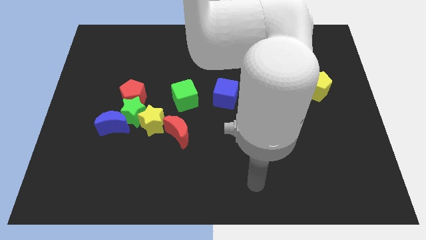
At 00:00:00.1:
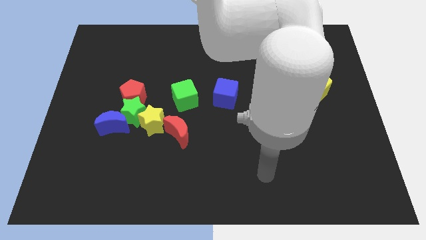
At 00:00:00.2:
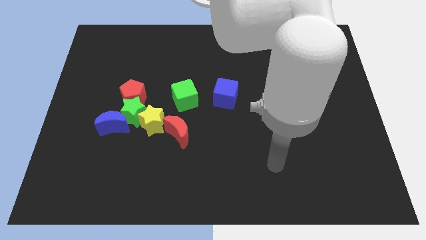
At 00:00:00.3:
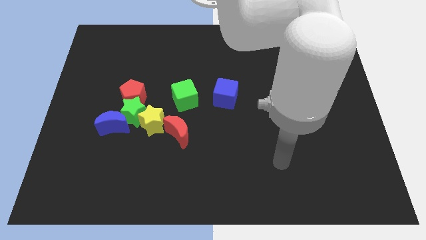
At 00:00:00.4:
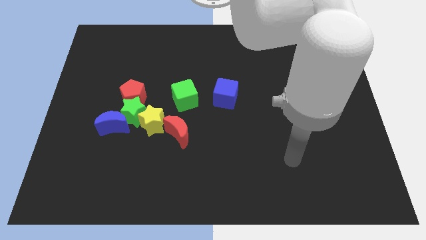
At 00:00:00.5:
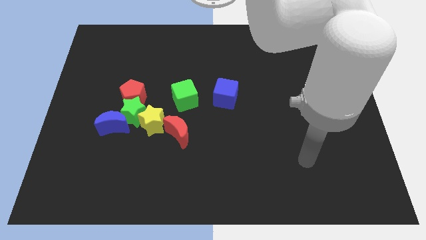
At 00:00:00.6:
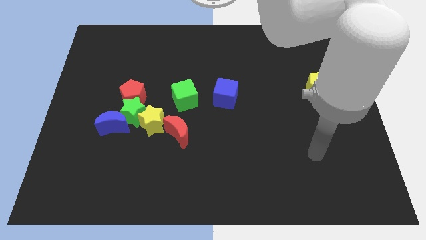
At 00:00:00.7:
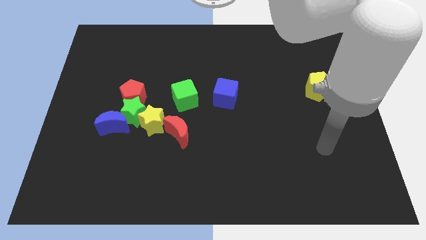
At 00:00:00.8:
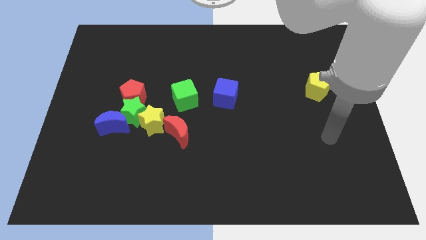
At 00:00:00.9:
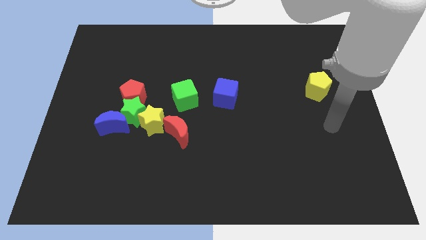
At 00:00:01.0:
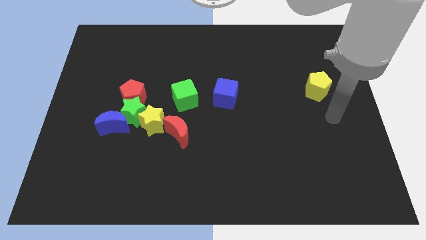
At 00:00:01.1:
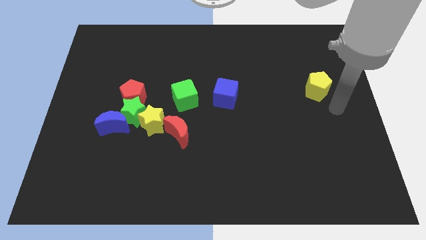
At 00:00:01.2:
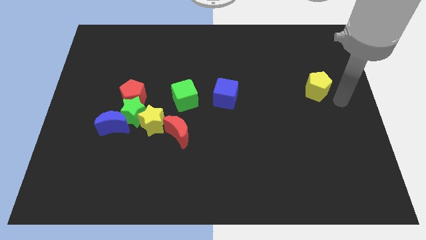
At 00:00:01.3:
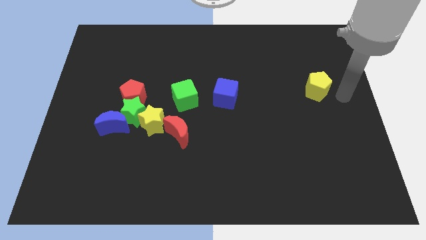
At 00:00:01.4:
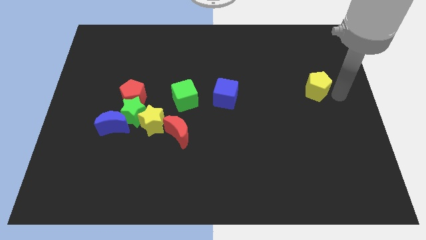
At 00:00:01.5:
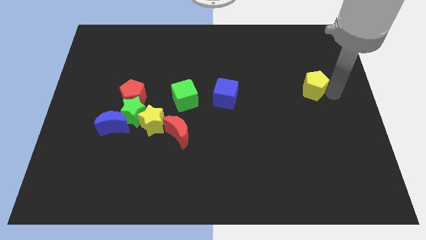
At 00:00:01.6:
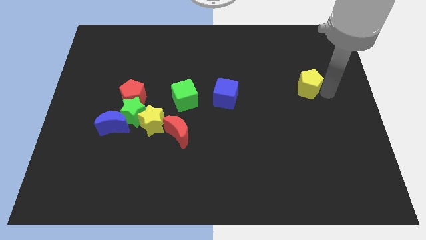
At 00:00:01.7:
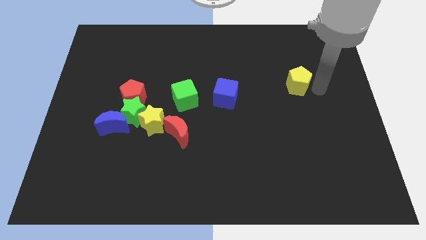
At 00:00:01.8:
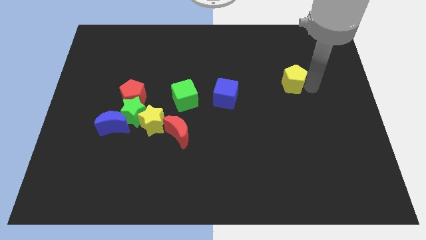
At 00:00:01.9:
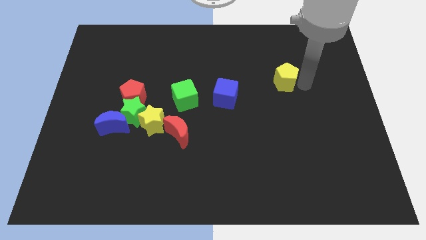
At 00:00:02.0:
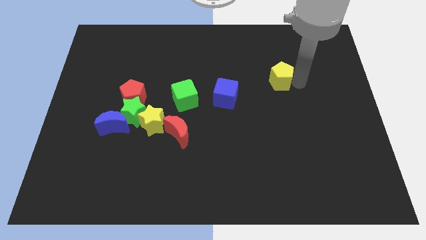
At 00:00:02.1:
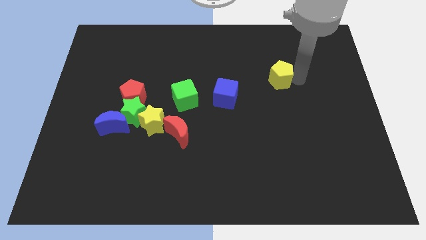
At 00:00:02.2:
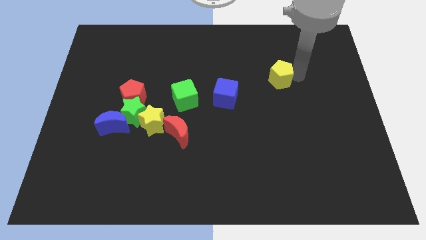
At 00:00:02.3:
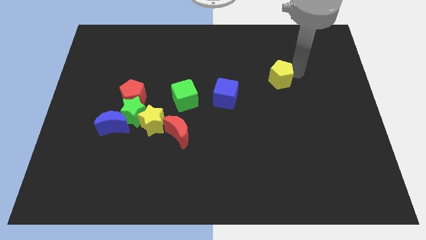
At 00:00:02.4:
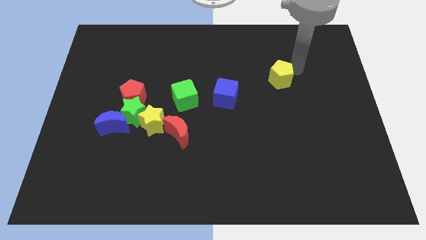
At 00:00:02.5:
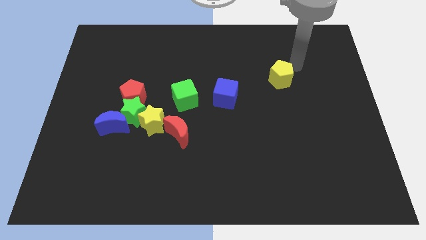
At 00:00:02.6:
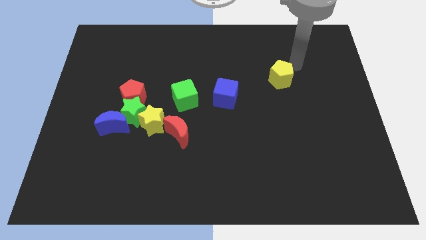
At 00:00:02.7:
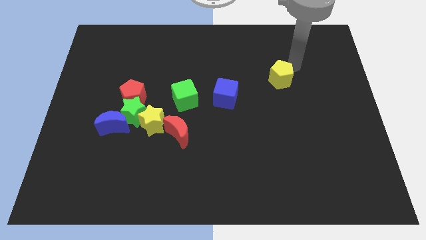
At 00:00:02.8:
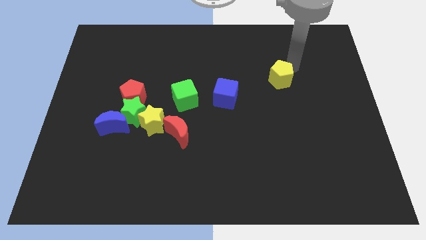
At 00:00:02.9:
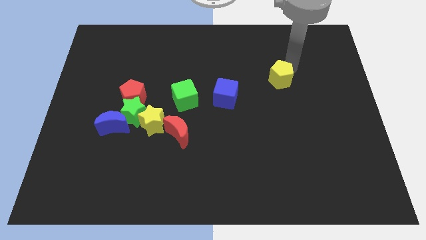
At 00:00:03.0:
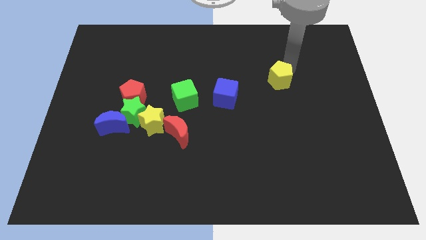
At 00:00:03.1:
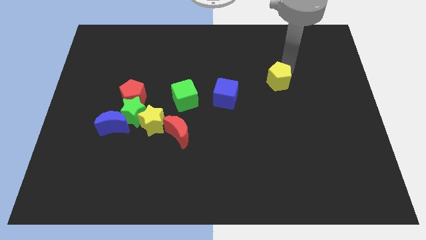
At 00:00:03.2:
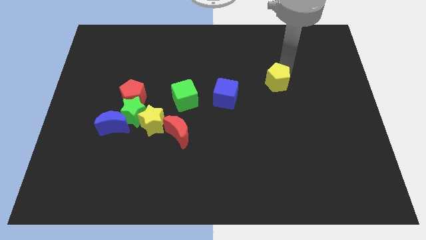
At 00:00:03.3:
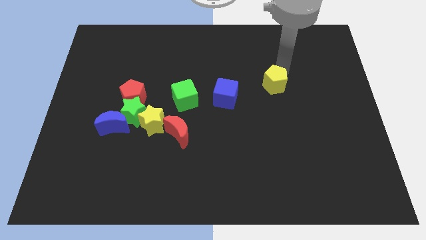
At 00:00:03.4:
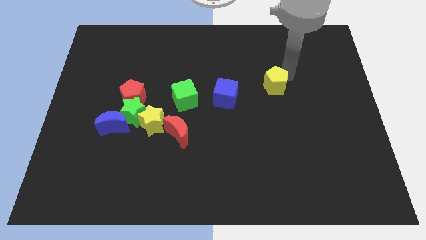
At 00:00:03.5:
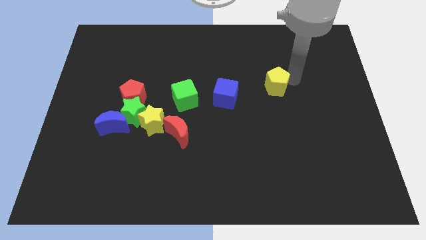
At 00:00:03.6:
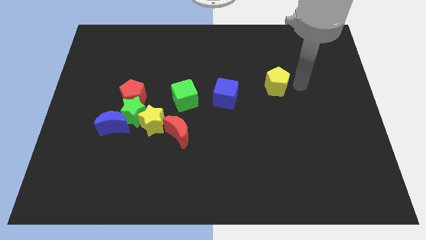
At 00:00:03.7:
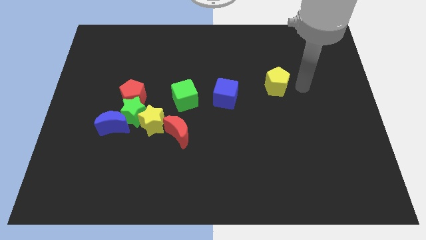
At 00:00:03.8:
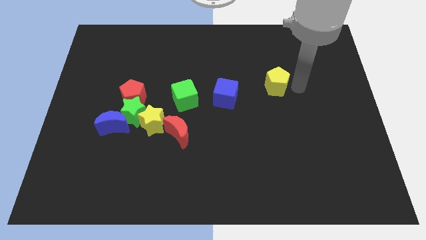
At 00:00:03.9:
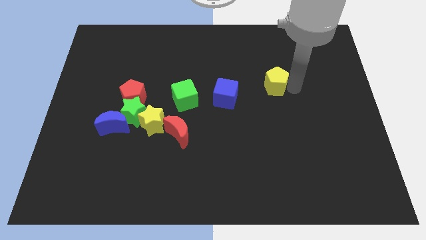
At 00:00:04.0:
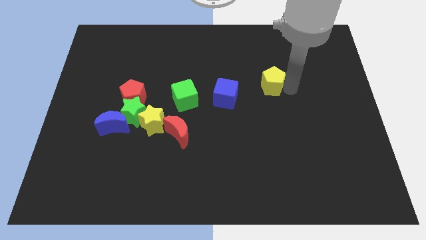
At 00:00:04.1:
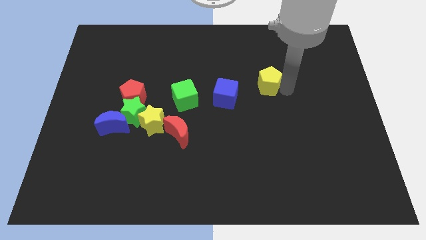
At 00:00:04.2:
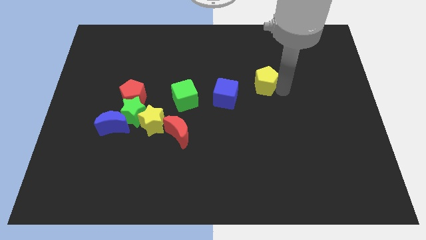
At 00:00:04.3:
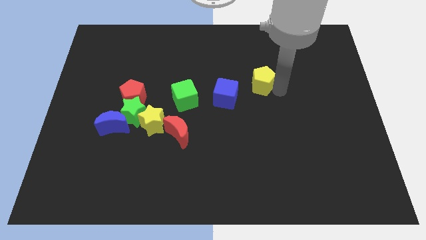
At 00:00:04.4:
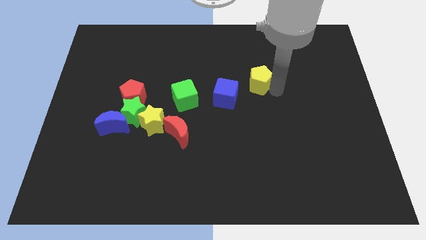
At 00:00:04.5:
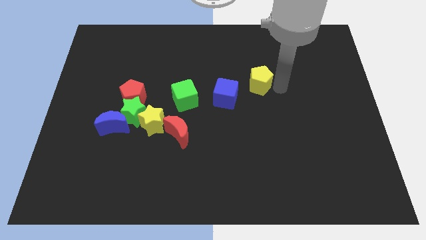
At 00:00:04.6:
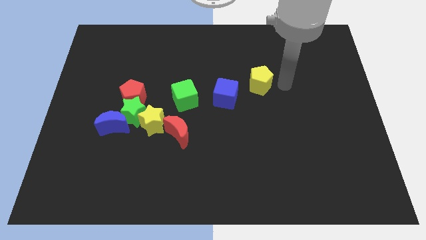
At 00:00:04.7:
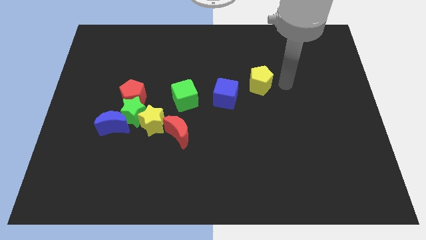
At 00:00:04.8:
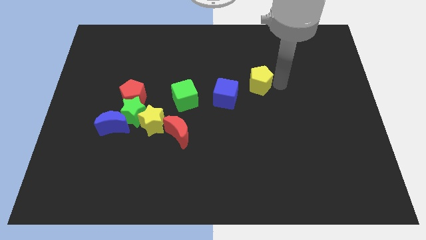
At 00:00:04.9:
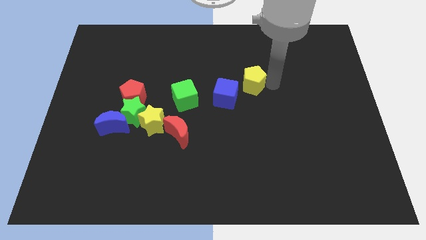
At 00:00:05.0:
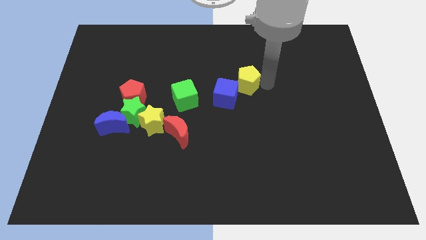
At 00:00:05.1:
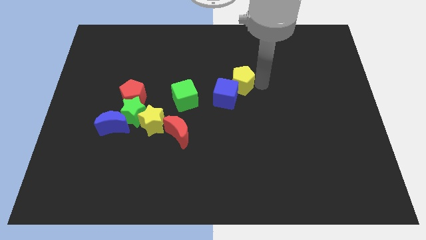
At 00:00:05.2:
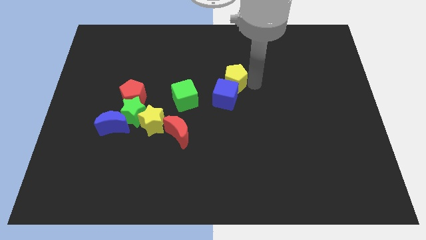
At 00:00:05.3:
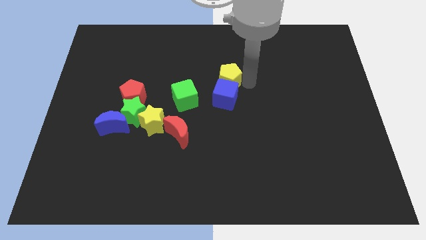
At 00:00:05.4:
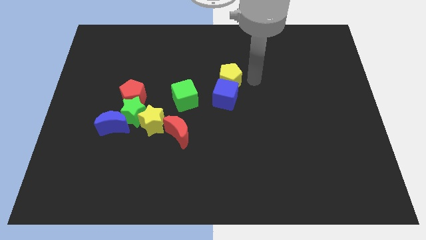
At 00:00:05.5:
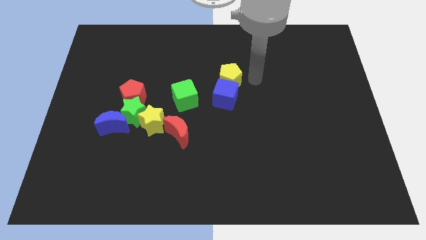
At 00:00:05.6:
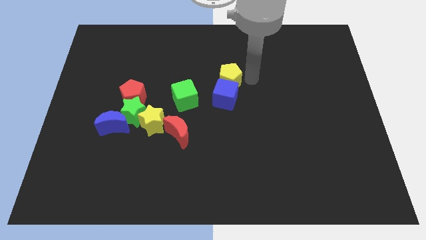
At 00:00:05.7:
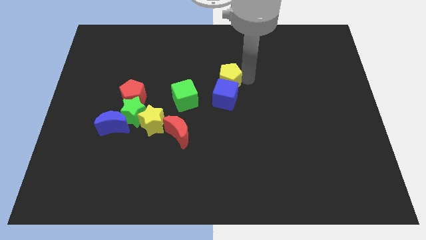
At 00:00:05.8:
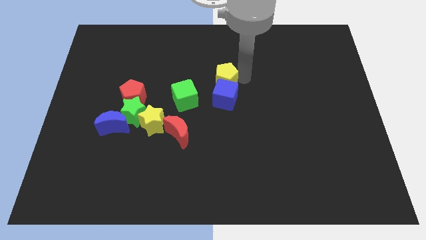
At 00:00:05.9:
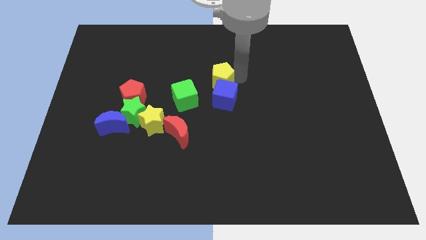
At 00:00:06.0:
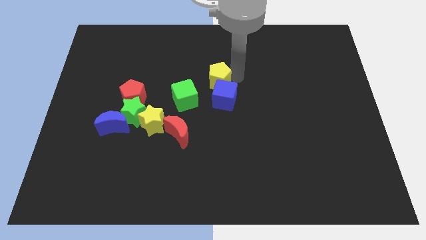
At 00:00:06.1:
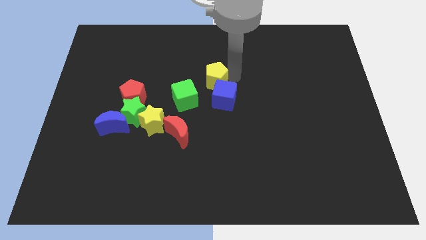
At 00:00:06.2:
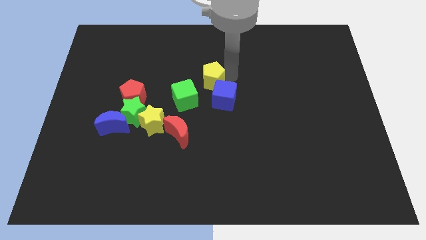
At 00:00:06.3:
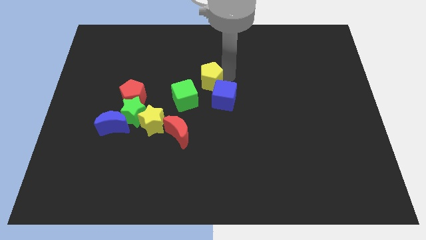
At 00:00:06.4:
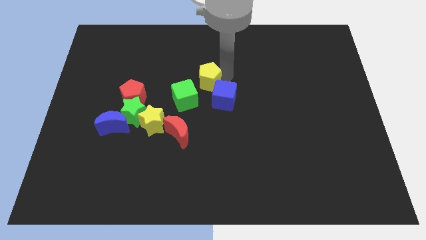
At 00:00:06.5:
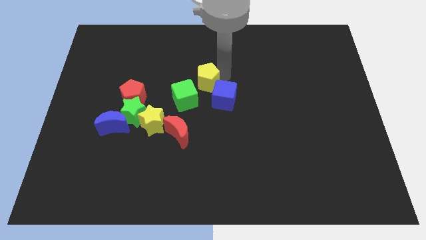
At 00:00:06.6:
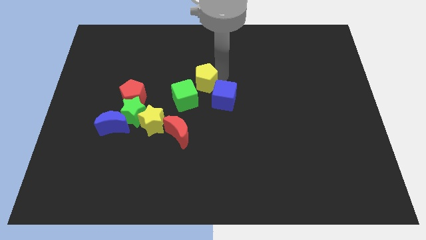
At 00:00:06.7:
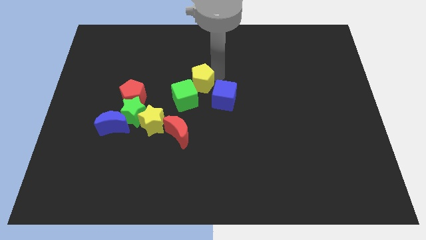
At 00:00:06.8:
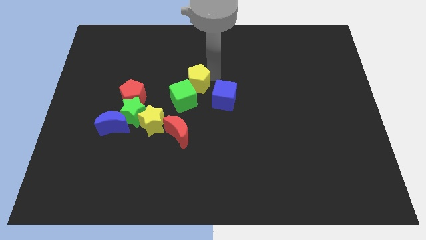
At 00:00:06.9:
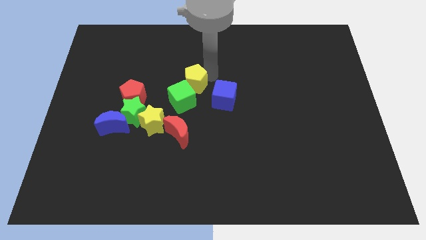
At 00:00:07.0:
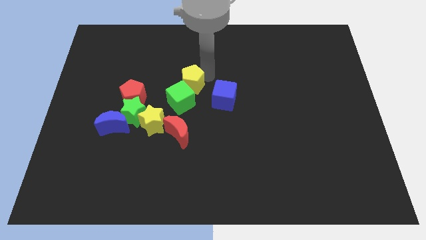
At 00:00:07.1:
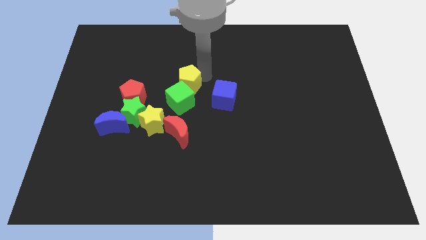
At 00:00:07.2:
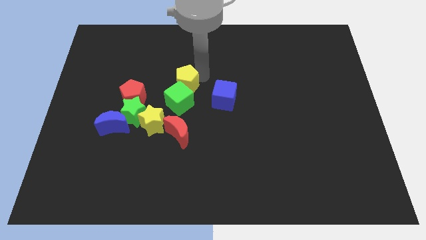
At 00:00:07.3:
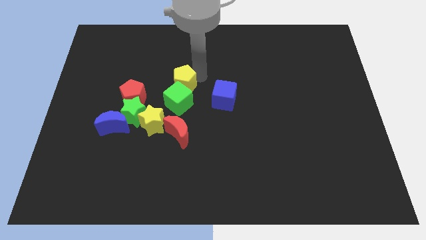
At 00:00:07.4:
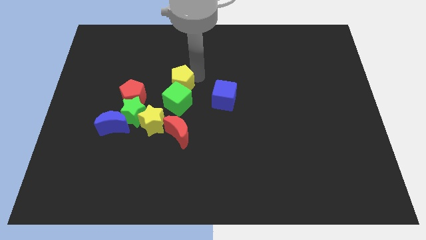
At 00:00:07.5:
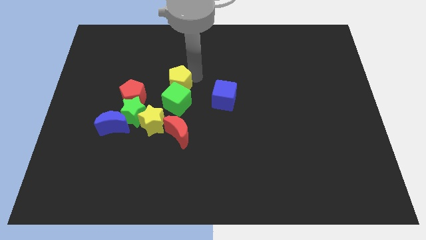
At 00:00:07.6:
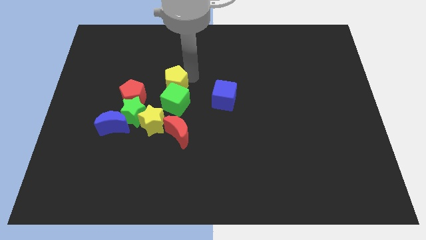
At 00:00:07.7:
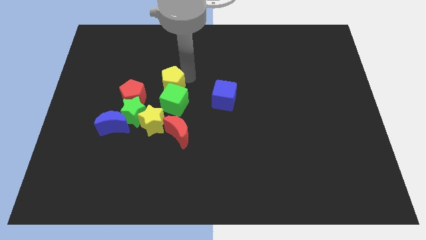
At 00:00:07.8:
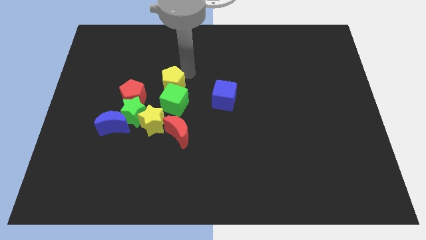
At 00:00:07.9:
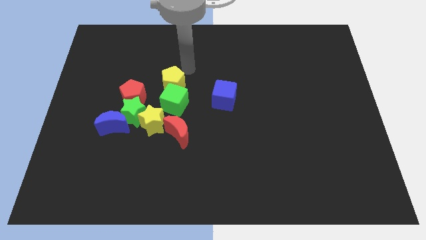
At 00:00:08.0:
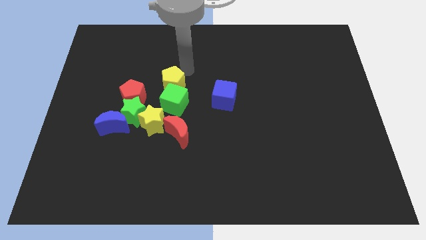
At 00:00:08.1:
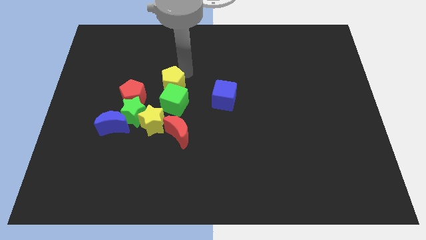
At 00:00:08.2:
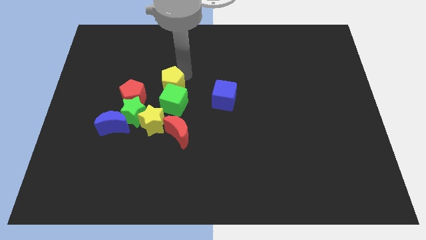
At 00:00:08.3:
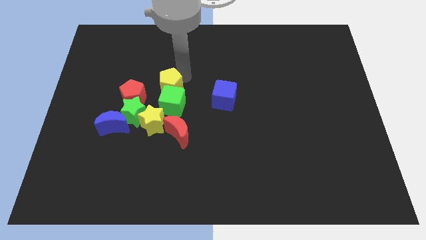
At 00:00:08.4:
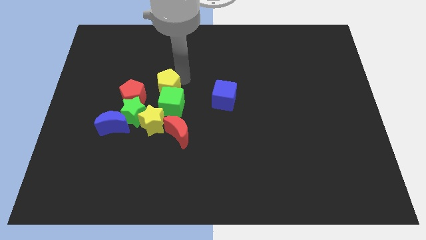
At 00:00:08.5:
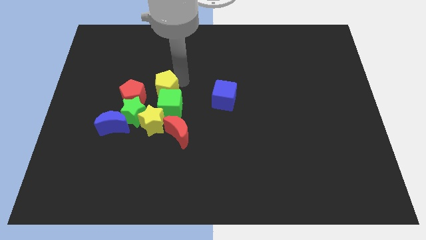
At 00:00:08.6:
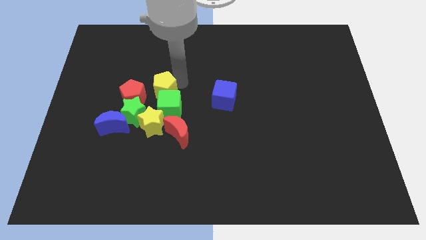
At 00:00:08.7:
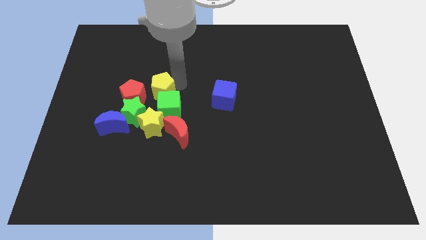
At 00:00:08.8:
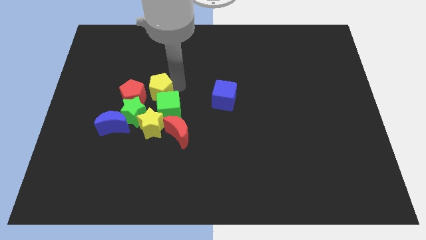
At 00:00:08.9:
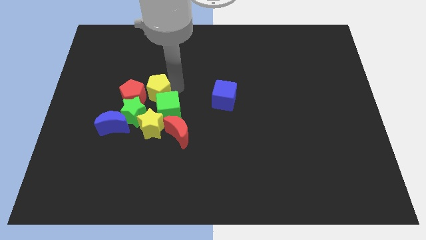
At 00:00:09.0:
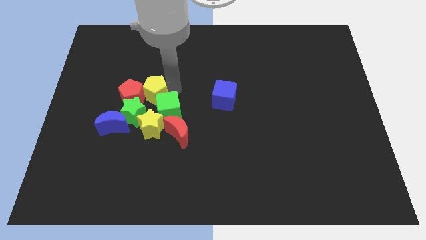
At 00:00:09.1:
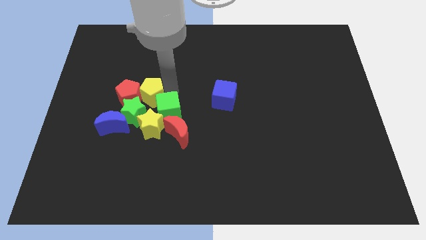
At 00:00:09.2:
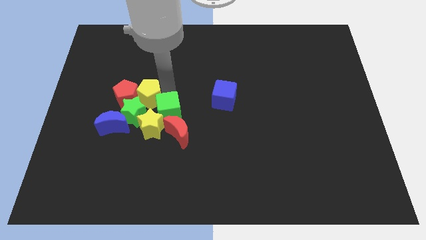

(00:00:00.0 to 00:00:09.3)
move the yellow pentagon to the green star
